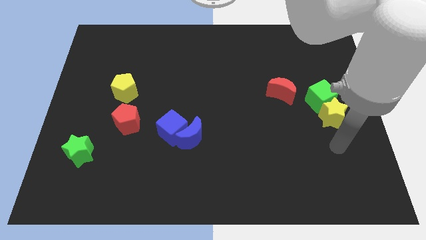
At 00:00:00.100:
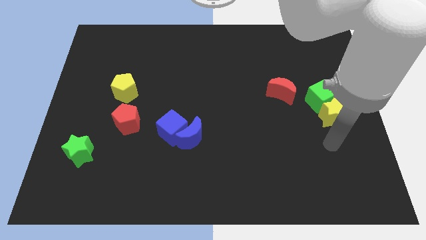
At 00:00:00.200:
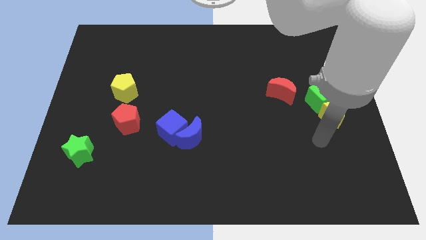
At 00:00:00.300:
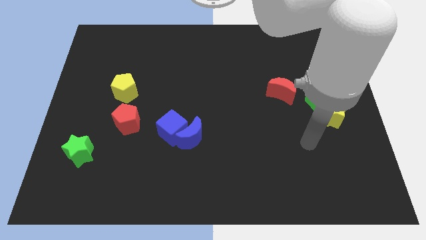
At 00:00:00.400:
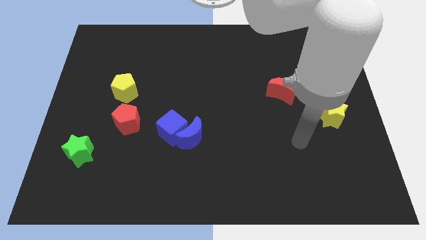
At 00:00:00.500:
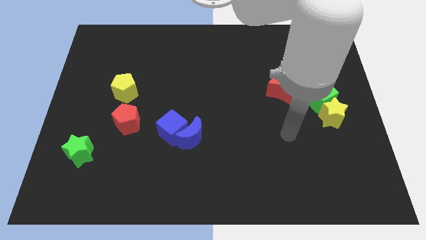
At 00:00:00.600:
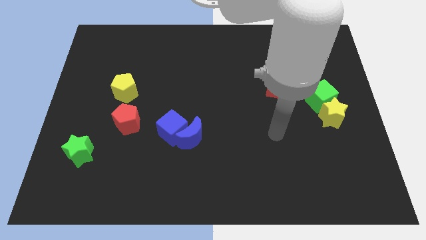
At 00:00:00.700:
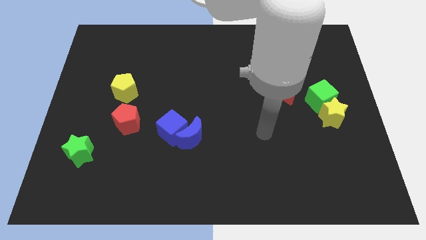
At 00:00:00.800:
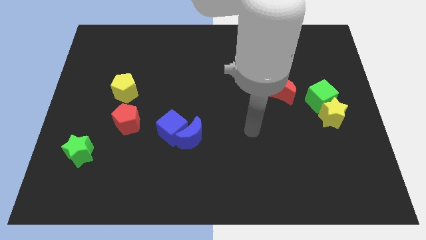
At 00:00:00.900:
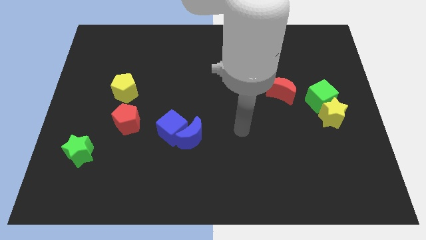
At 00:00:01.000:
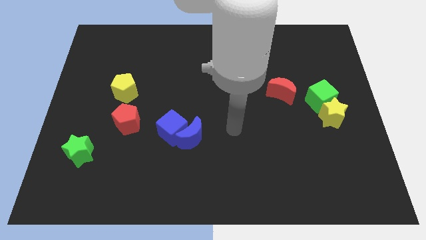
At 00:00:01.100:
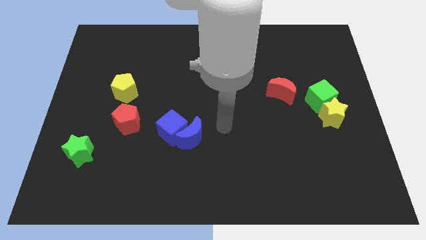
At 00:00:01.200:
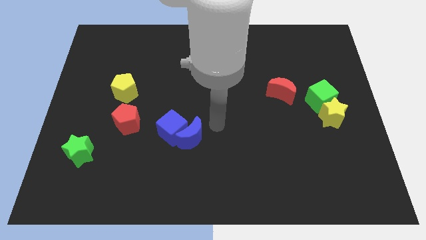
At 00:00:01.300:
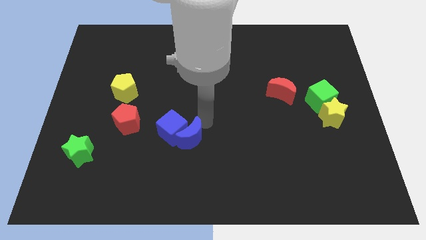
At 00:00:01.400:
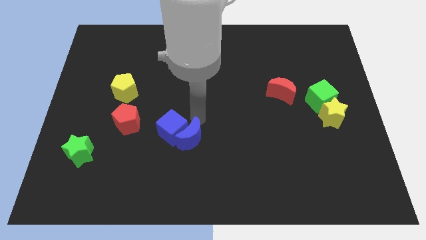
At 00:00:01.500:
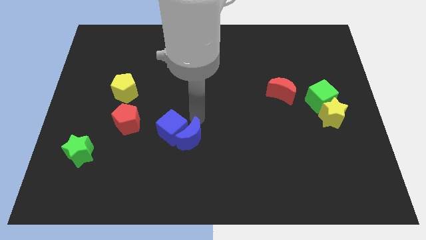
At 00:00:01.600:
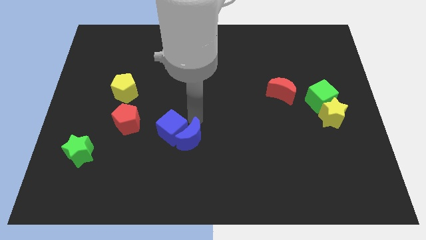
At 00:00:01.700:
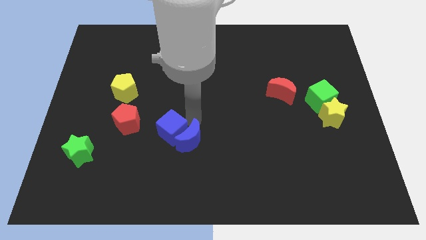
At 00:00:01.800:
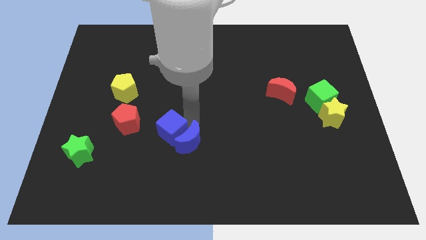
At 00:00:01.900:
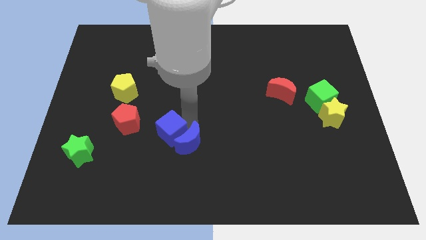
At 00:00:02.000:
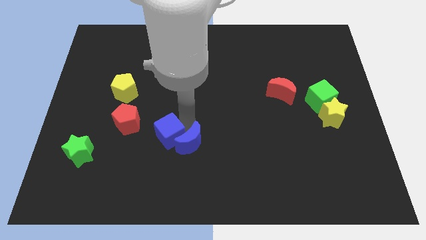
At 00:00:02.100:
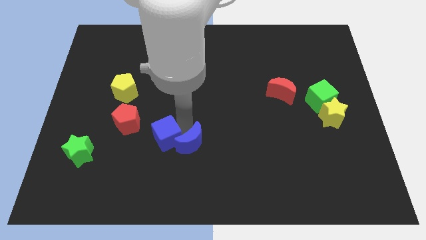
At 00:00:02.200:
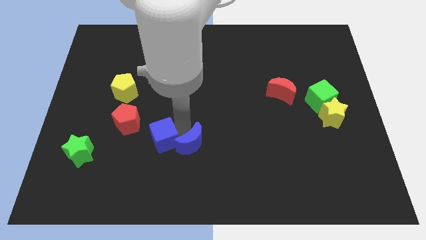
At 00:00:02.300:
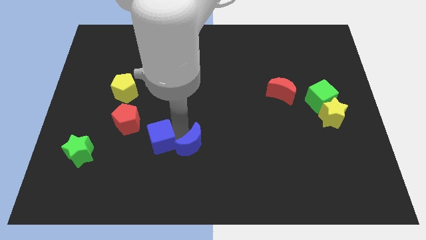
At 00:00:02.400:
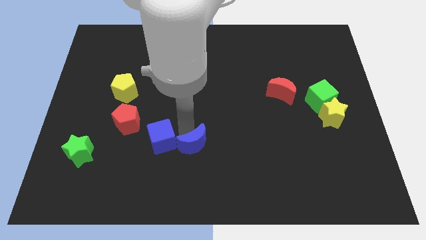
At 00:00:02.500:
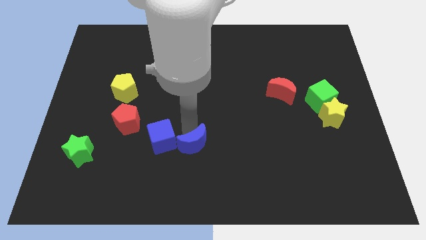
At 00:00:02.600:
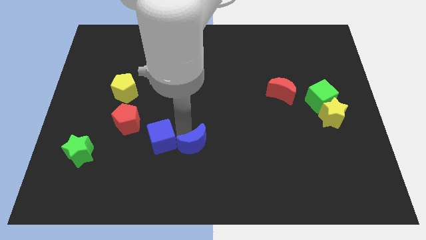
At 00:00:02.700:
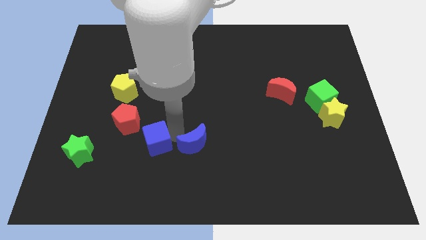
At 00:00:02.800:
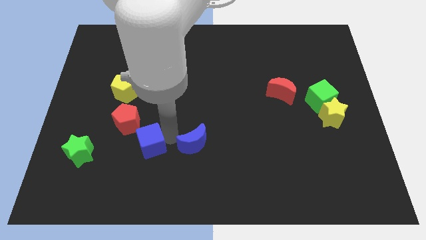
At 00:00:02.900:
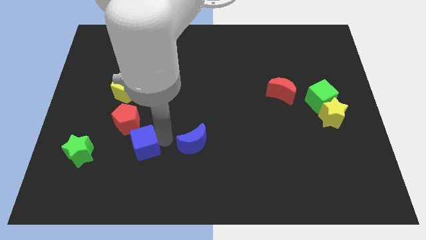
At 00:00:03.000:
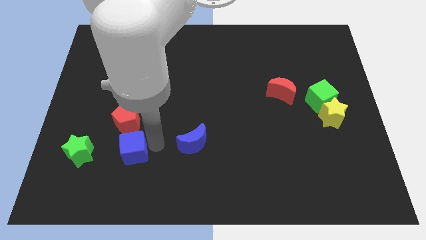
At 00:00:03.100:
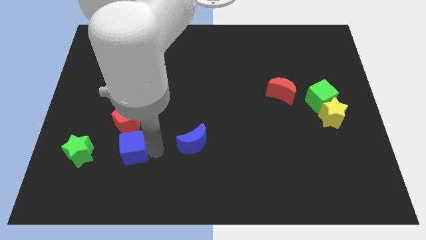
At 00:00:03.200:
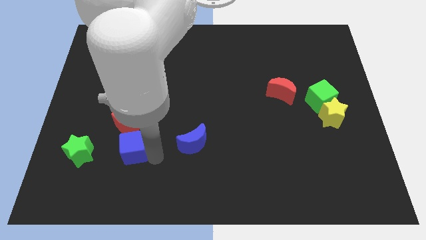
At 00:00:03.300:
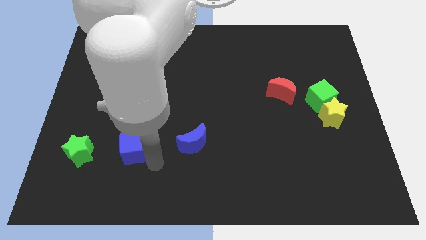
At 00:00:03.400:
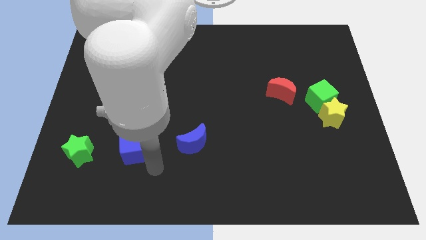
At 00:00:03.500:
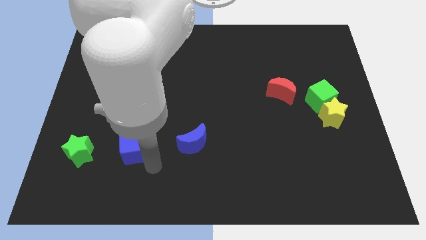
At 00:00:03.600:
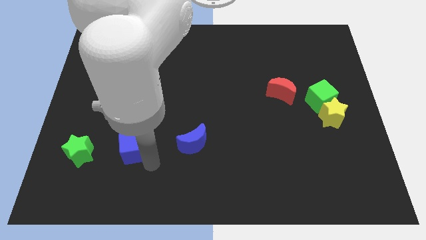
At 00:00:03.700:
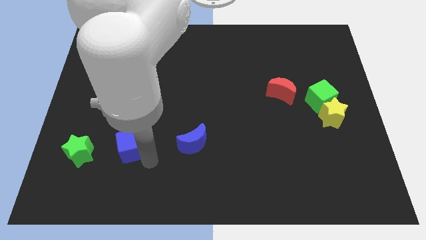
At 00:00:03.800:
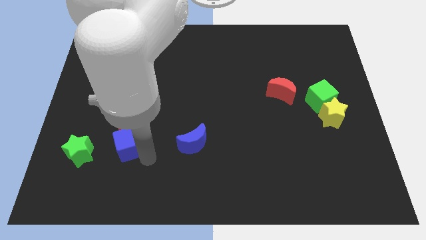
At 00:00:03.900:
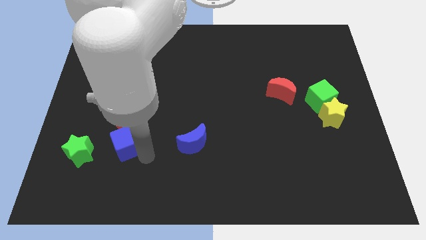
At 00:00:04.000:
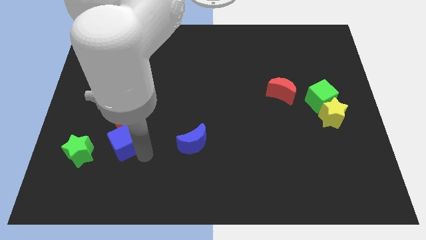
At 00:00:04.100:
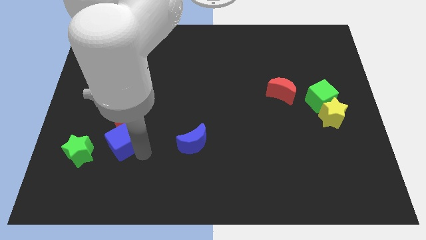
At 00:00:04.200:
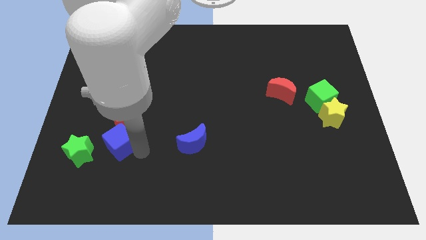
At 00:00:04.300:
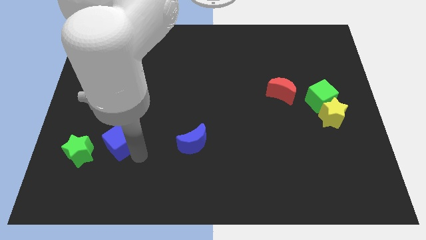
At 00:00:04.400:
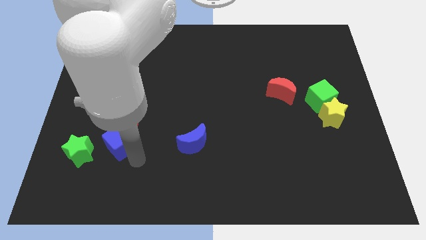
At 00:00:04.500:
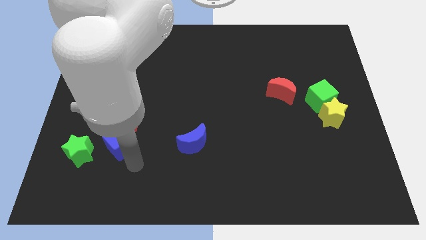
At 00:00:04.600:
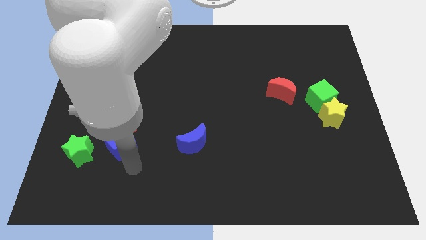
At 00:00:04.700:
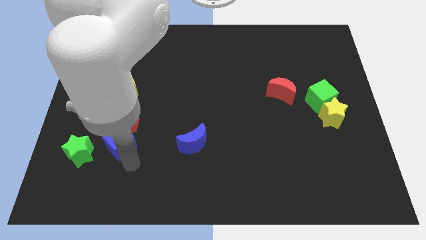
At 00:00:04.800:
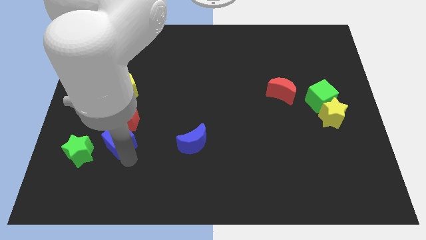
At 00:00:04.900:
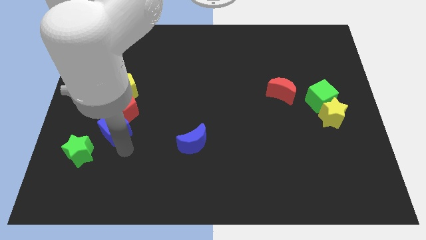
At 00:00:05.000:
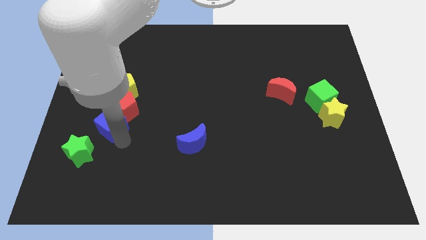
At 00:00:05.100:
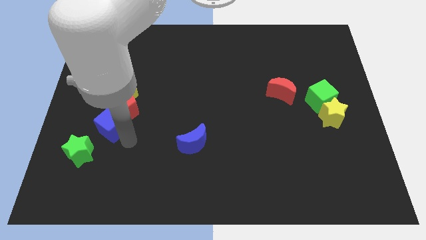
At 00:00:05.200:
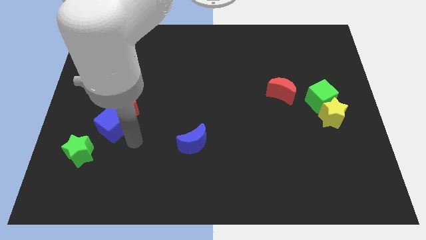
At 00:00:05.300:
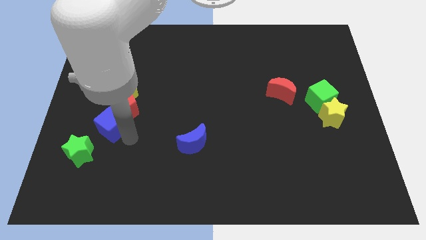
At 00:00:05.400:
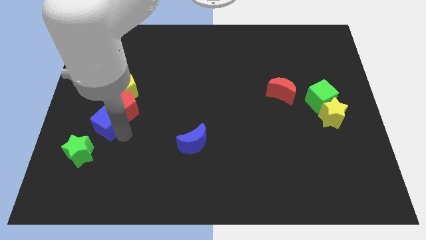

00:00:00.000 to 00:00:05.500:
put the blue cube to the top of the green star

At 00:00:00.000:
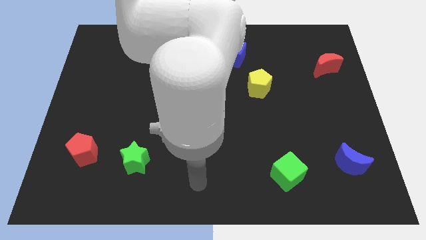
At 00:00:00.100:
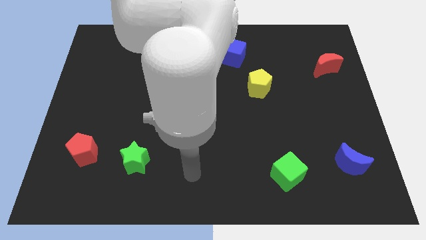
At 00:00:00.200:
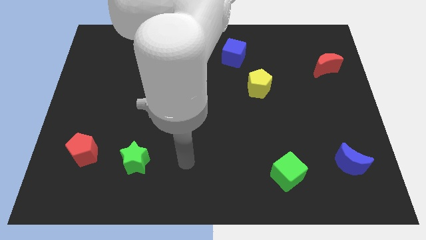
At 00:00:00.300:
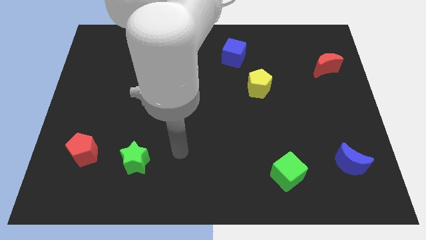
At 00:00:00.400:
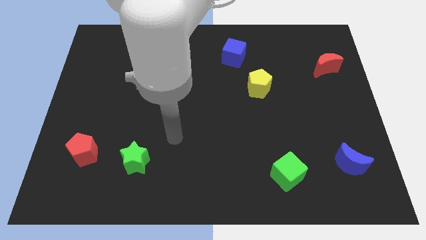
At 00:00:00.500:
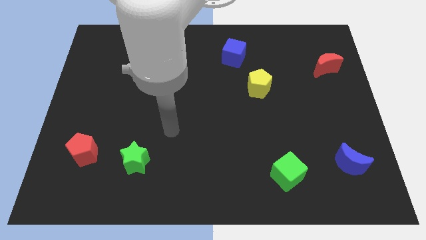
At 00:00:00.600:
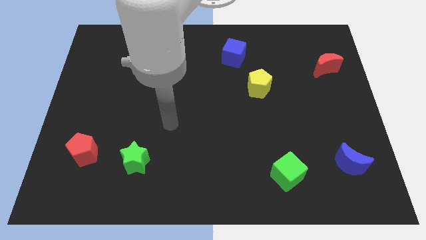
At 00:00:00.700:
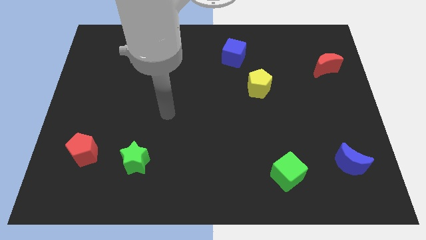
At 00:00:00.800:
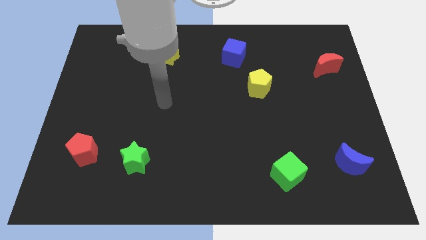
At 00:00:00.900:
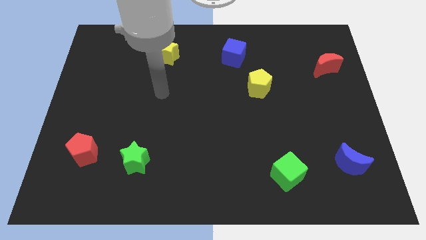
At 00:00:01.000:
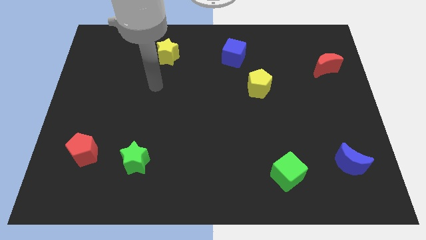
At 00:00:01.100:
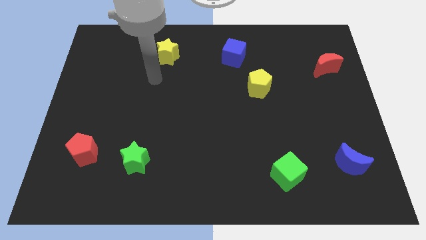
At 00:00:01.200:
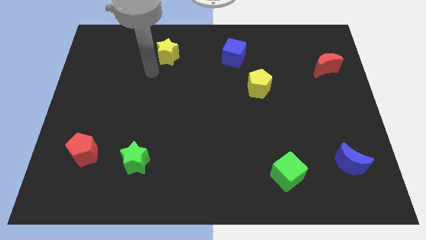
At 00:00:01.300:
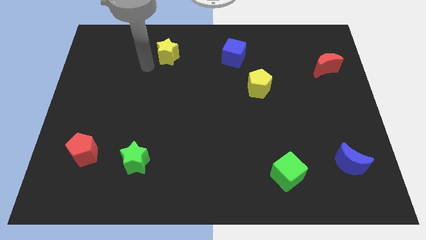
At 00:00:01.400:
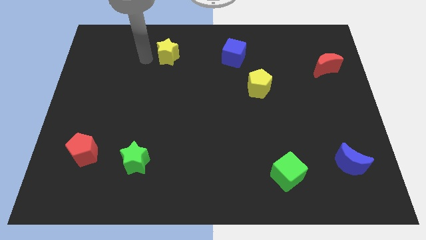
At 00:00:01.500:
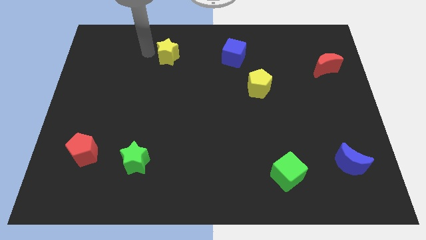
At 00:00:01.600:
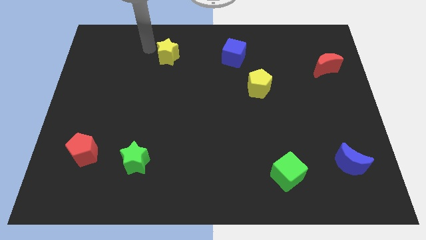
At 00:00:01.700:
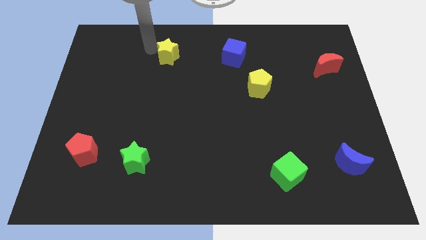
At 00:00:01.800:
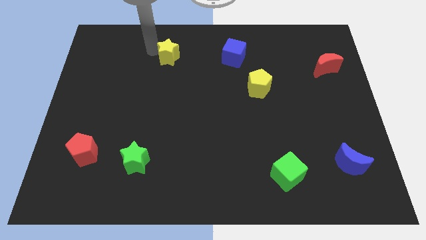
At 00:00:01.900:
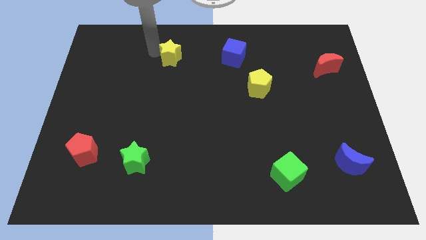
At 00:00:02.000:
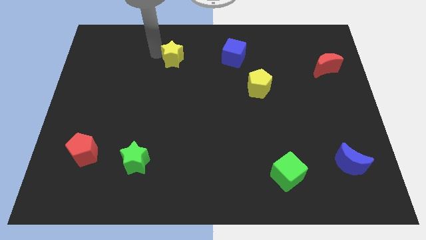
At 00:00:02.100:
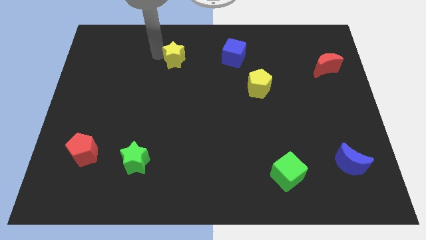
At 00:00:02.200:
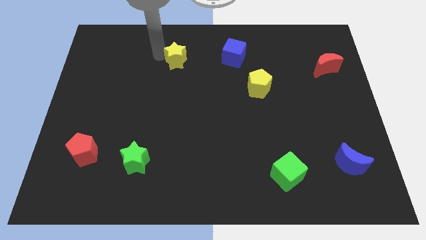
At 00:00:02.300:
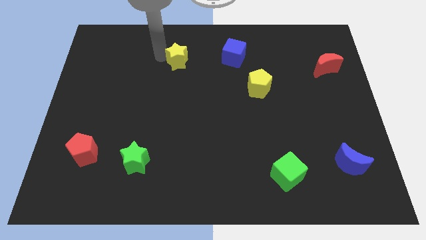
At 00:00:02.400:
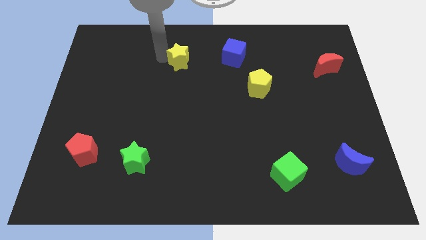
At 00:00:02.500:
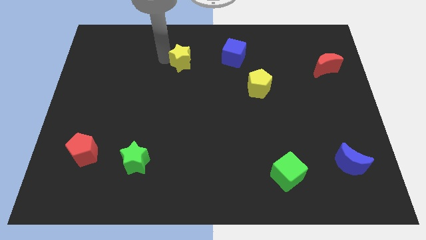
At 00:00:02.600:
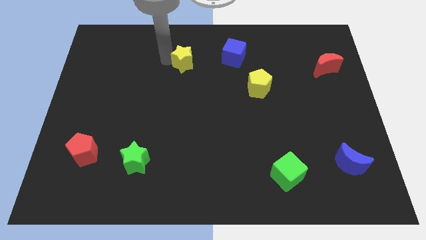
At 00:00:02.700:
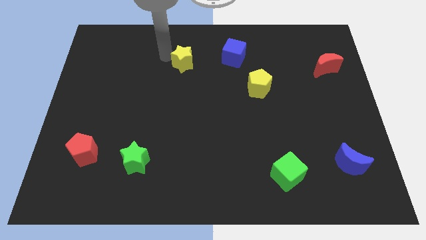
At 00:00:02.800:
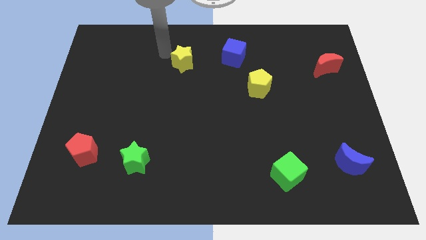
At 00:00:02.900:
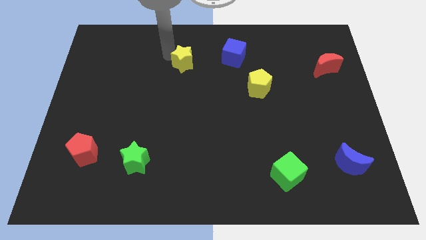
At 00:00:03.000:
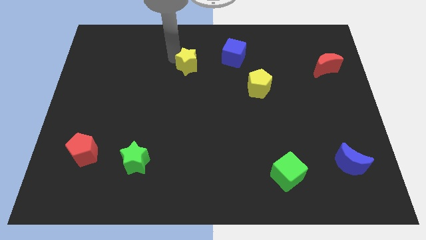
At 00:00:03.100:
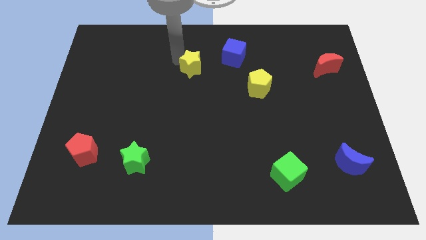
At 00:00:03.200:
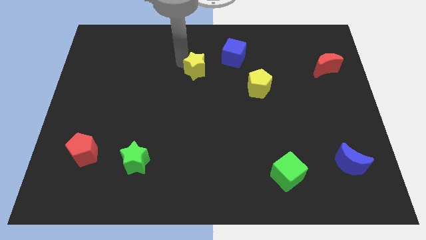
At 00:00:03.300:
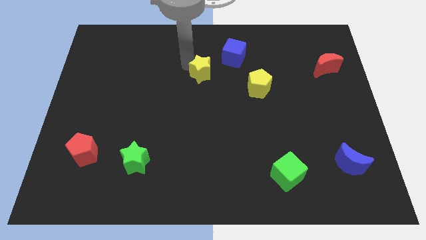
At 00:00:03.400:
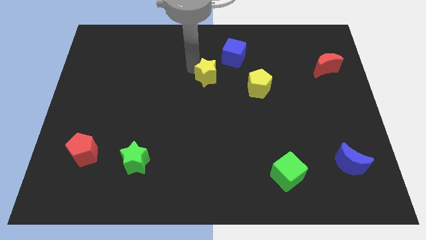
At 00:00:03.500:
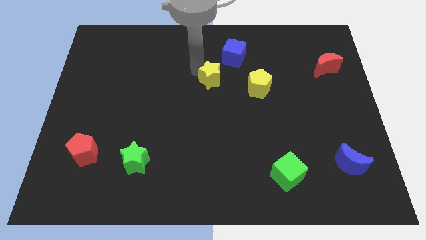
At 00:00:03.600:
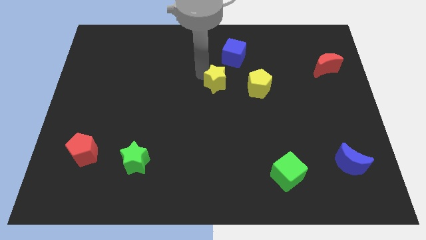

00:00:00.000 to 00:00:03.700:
put the yellow star to the bottom of the blue cube
